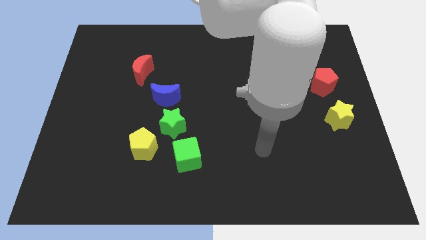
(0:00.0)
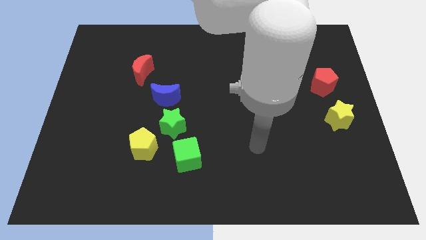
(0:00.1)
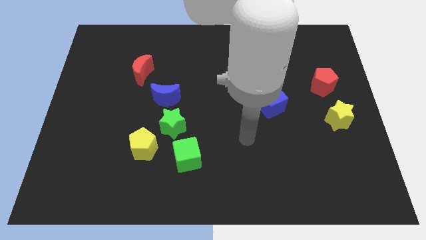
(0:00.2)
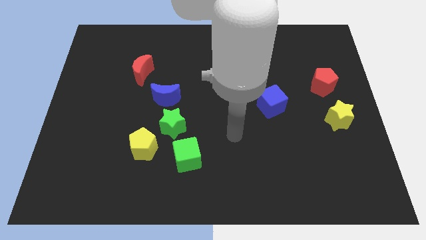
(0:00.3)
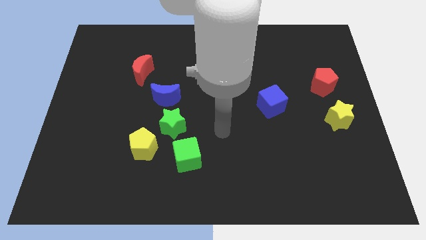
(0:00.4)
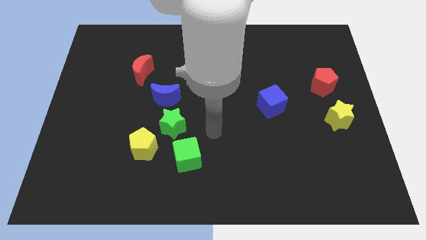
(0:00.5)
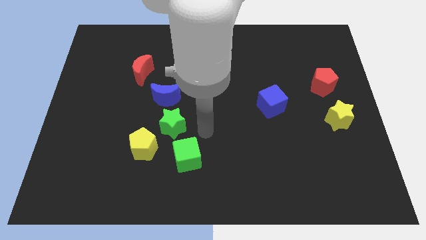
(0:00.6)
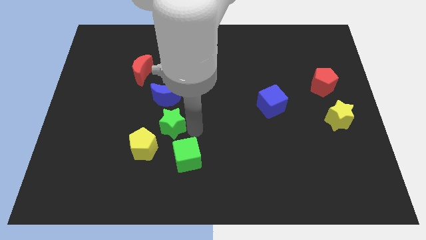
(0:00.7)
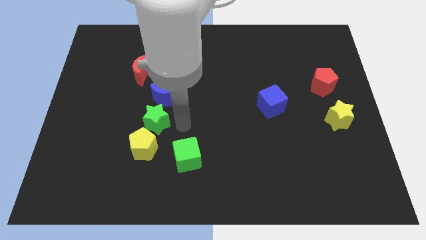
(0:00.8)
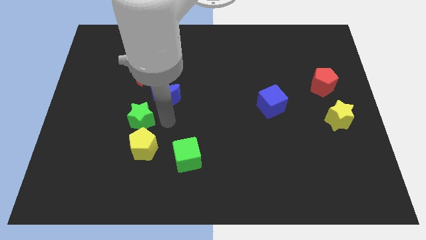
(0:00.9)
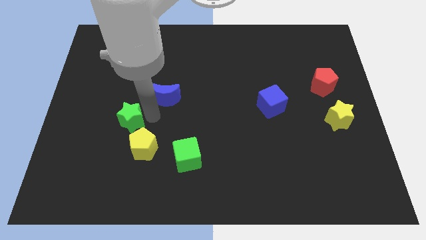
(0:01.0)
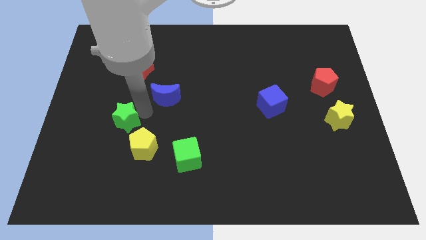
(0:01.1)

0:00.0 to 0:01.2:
separate the blue moon from the green star

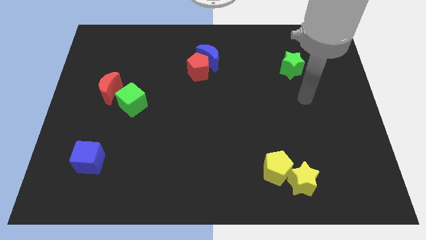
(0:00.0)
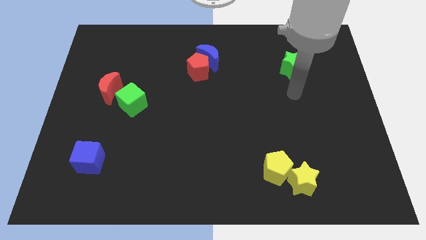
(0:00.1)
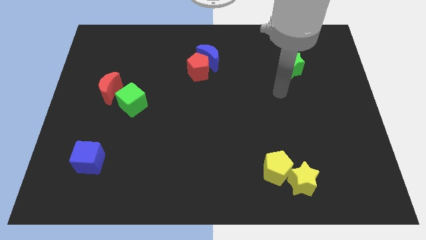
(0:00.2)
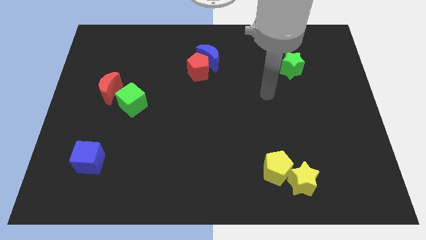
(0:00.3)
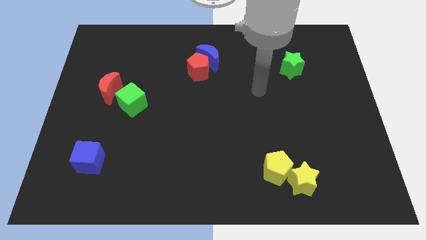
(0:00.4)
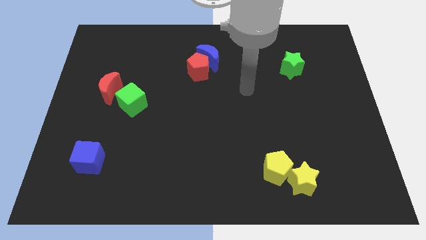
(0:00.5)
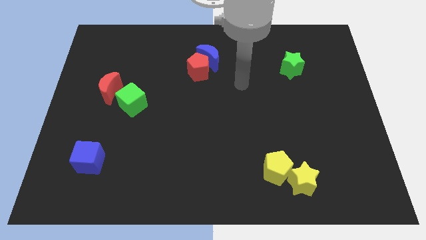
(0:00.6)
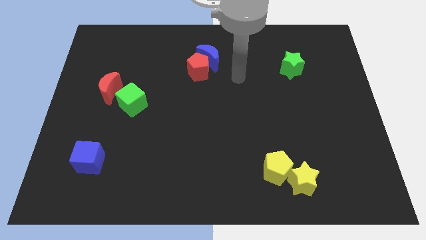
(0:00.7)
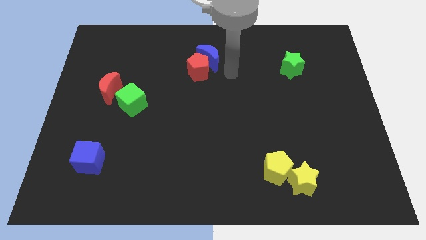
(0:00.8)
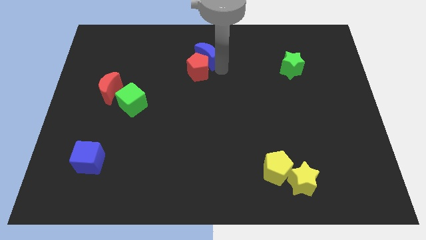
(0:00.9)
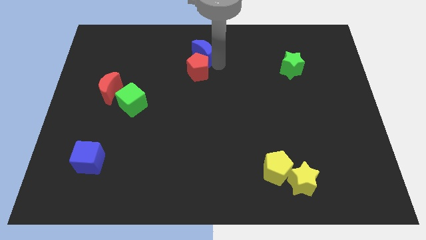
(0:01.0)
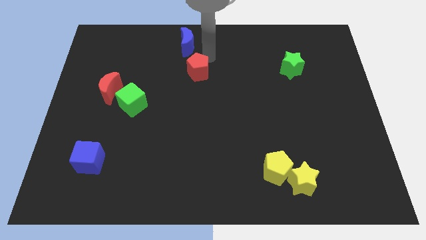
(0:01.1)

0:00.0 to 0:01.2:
move the red pentagon away from the blue moon

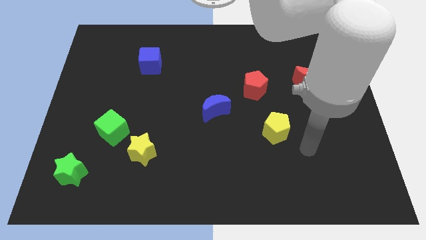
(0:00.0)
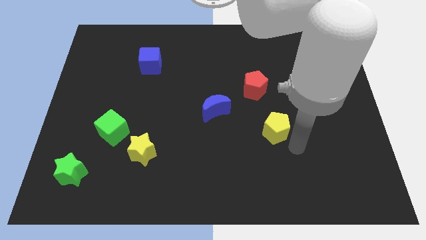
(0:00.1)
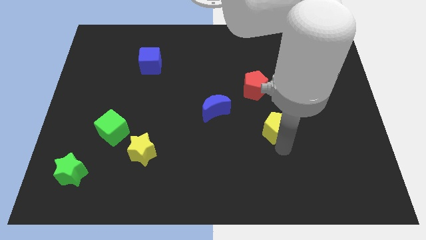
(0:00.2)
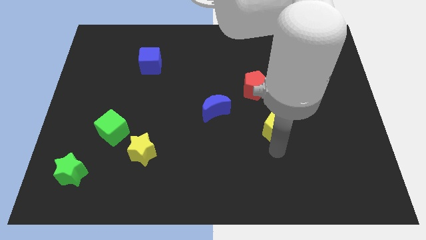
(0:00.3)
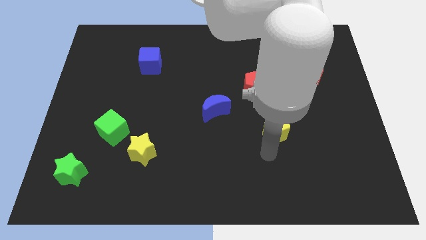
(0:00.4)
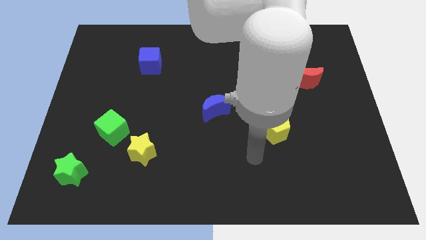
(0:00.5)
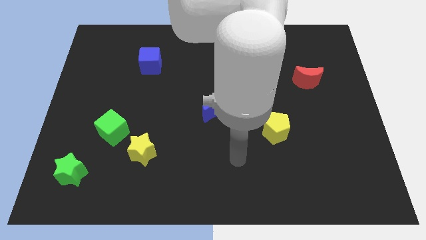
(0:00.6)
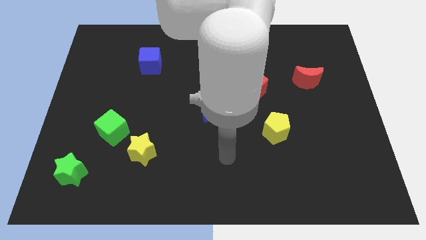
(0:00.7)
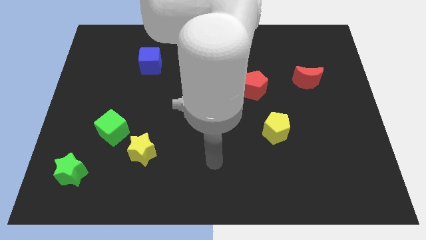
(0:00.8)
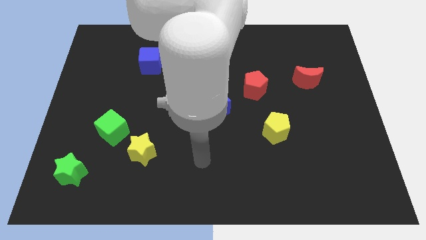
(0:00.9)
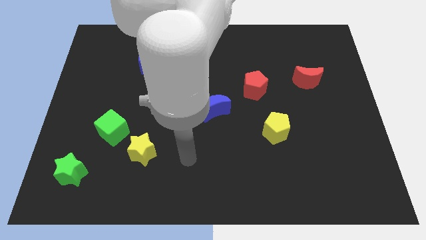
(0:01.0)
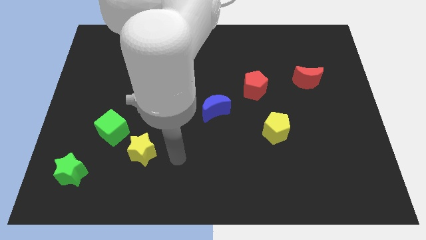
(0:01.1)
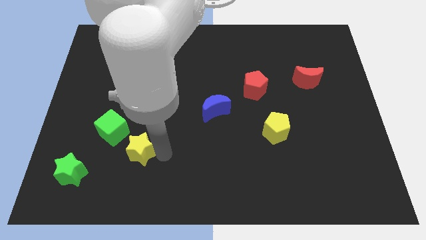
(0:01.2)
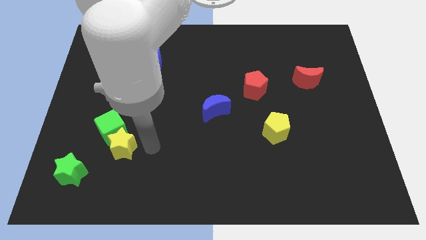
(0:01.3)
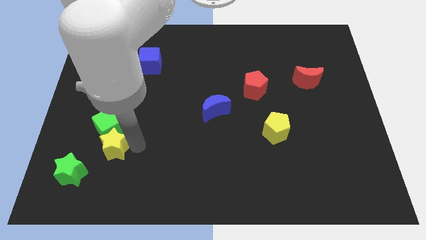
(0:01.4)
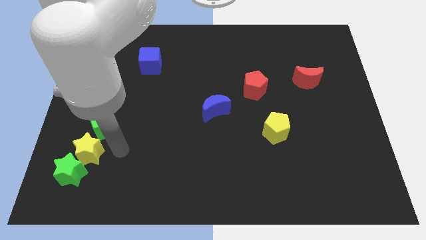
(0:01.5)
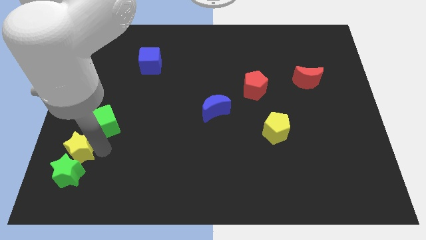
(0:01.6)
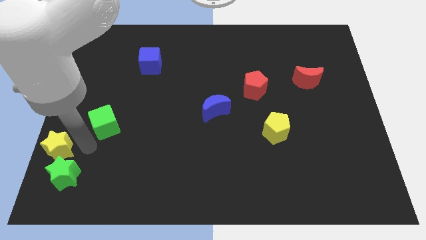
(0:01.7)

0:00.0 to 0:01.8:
move the green cube away from the yellow star

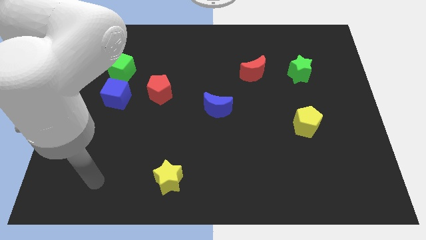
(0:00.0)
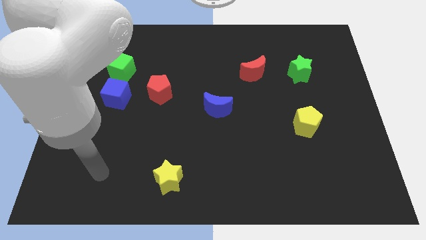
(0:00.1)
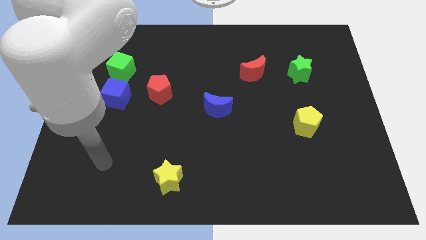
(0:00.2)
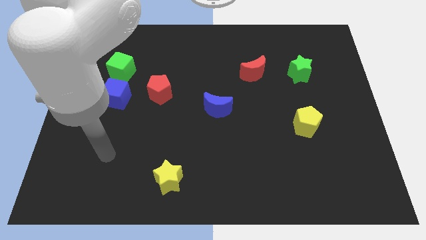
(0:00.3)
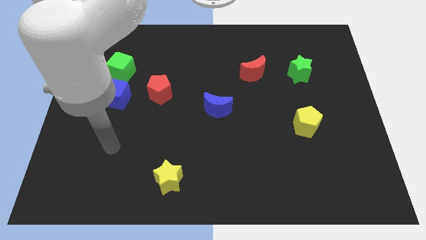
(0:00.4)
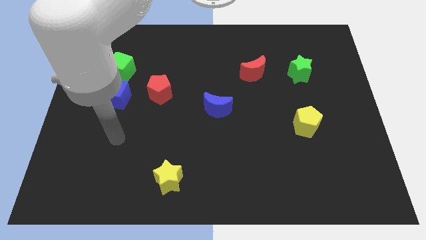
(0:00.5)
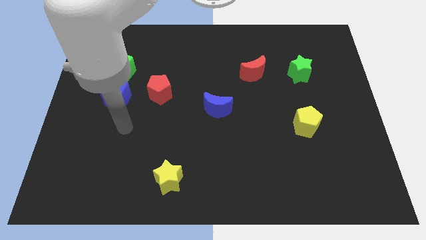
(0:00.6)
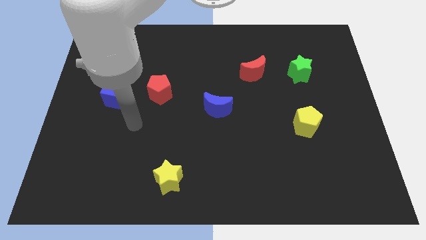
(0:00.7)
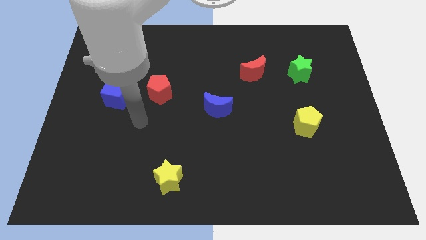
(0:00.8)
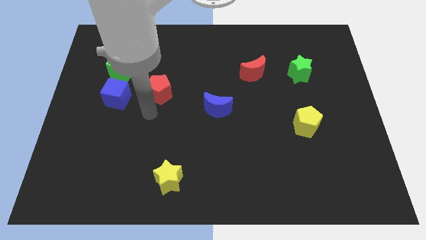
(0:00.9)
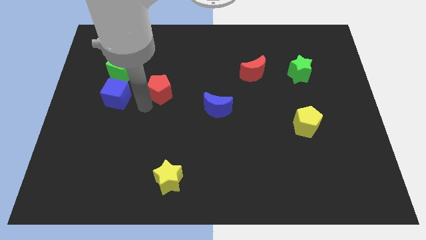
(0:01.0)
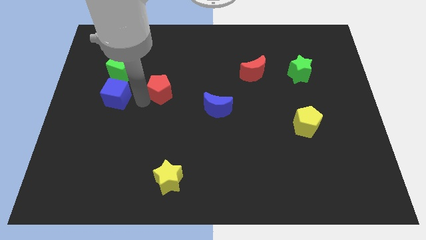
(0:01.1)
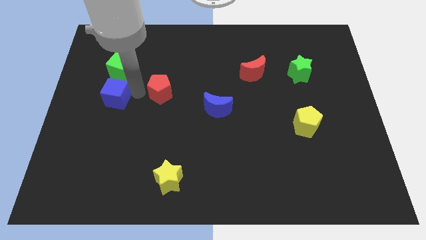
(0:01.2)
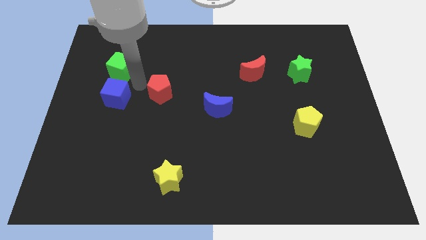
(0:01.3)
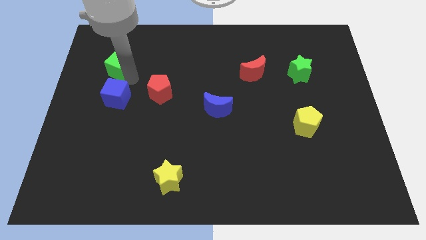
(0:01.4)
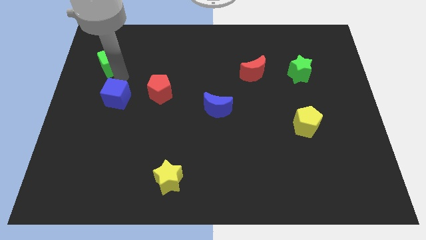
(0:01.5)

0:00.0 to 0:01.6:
move the blue cube away from the green cube

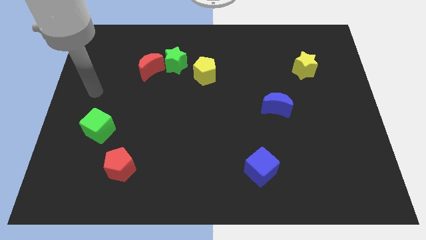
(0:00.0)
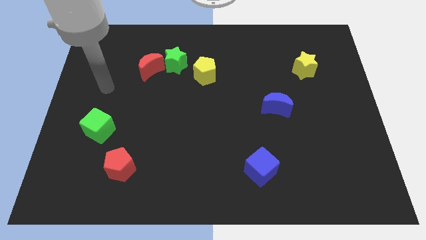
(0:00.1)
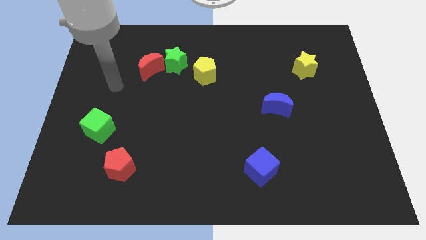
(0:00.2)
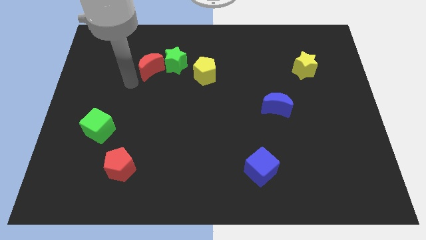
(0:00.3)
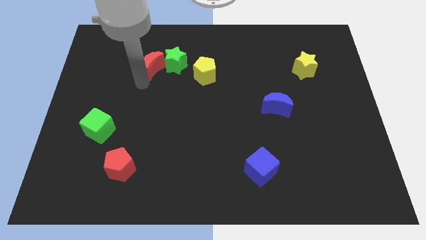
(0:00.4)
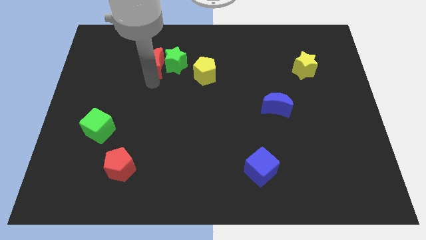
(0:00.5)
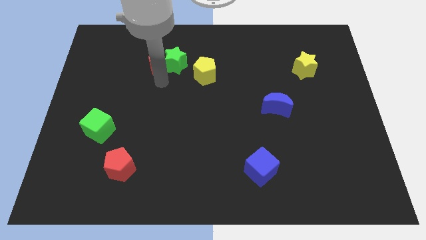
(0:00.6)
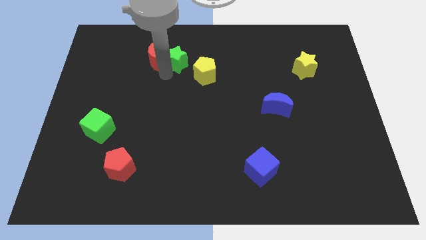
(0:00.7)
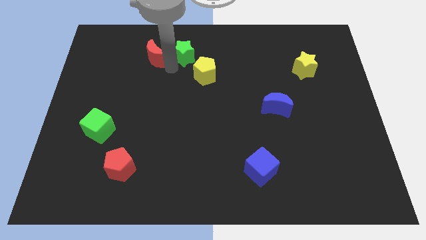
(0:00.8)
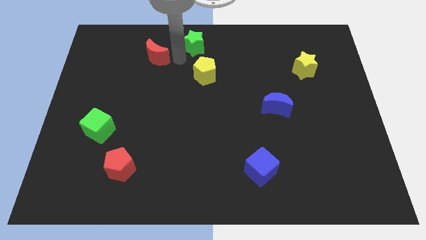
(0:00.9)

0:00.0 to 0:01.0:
move the red moon away from the green star

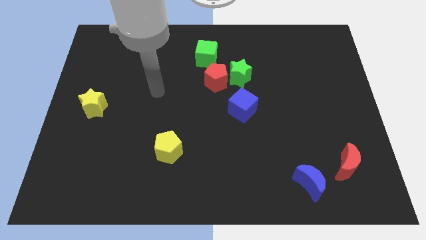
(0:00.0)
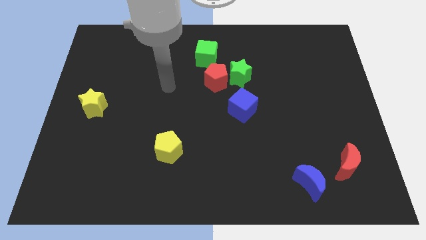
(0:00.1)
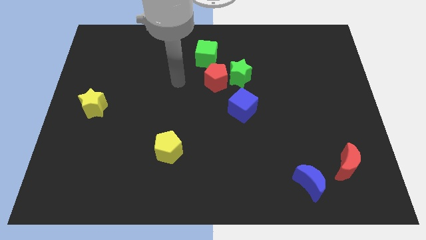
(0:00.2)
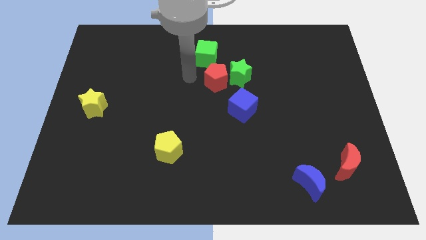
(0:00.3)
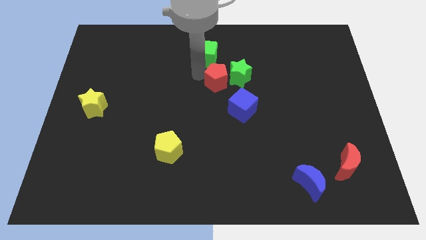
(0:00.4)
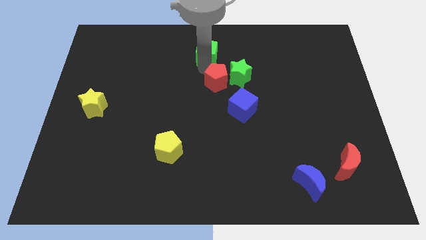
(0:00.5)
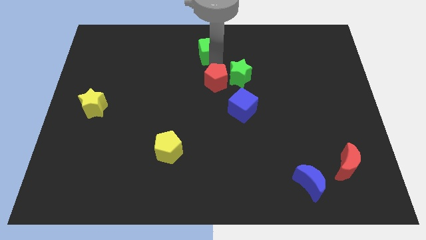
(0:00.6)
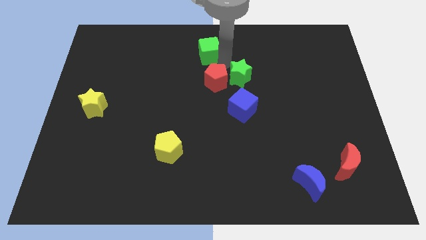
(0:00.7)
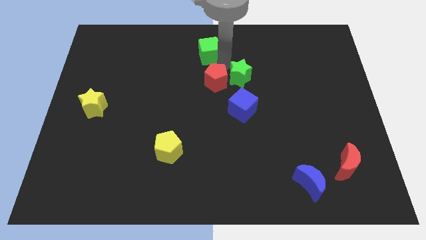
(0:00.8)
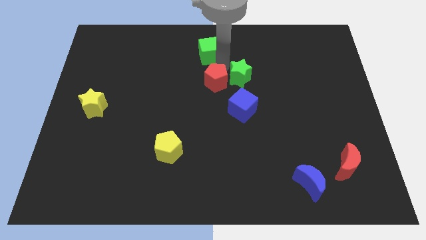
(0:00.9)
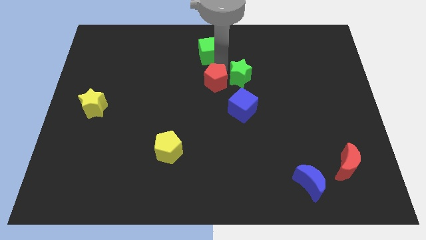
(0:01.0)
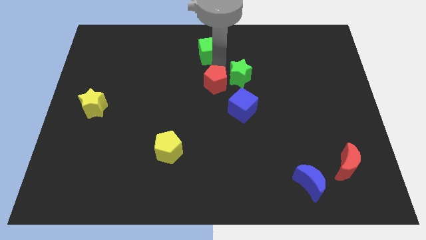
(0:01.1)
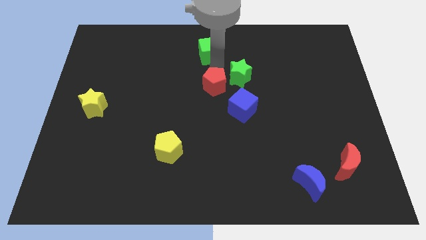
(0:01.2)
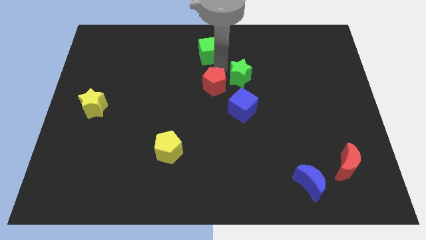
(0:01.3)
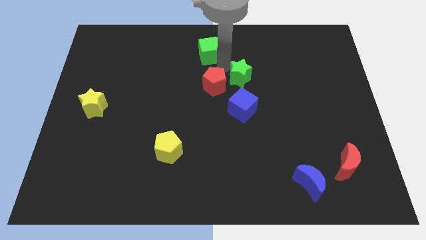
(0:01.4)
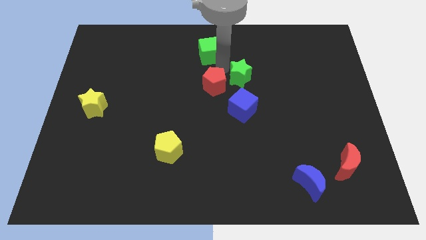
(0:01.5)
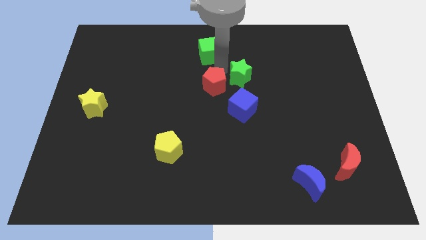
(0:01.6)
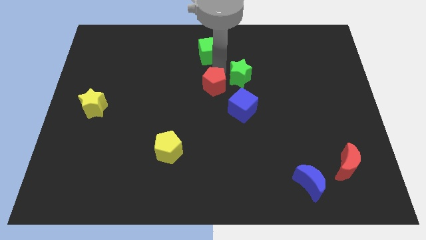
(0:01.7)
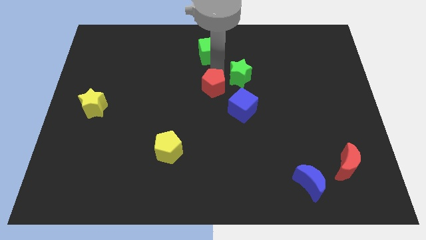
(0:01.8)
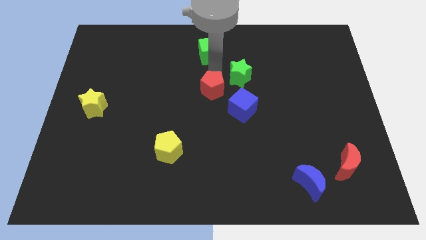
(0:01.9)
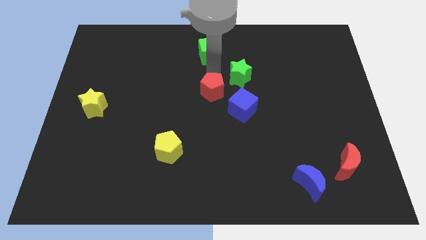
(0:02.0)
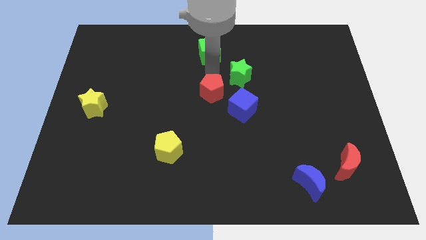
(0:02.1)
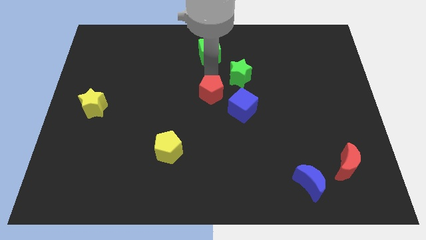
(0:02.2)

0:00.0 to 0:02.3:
separate the red pentagon from the green star and green cube

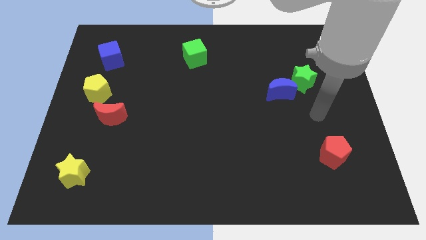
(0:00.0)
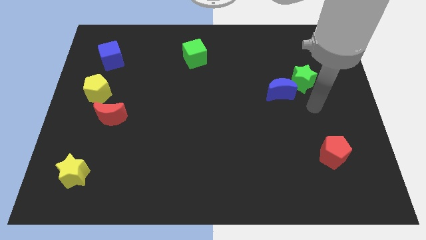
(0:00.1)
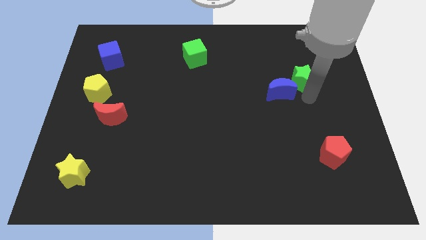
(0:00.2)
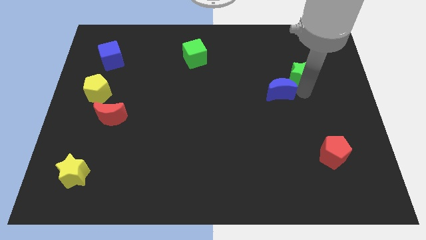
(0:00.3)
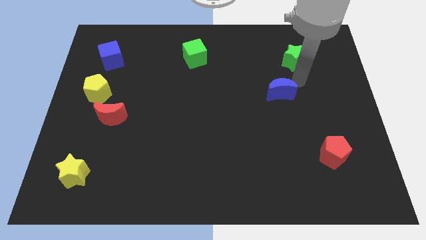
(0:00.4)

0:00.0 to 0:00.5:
pull the blue moon apart from the green star
